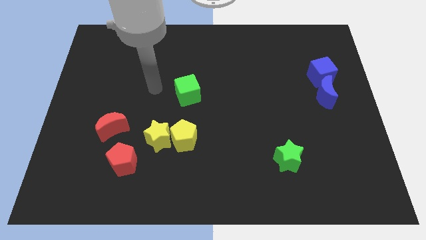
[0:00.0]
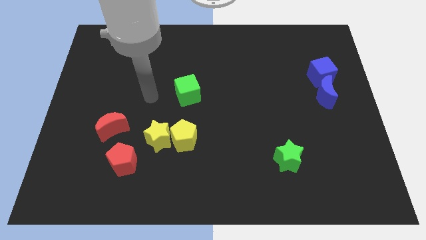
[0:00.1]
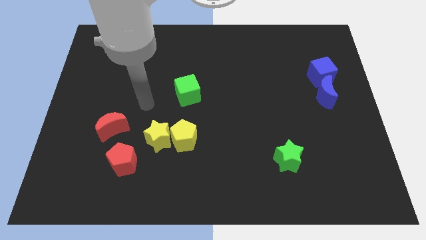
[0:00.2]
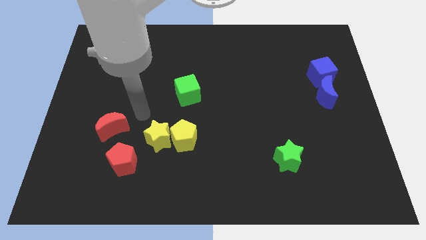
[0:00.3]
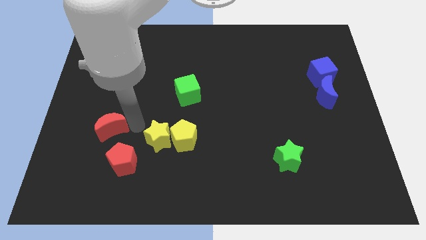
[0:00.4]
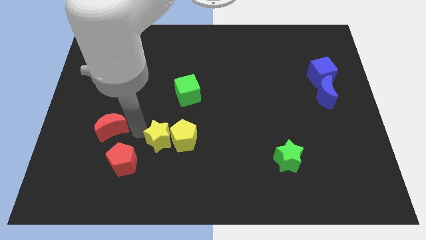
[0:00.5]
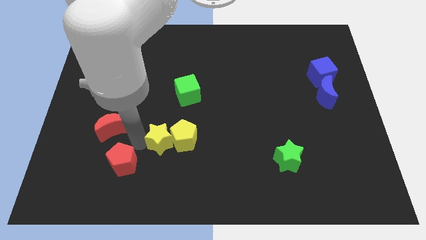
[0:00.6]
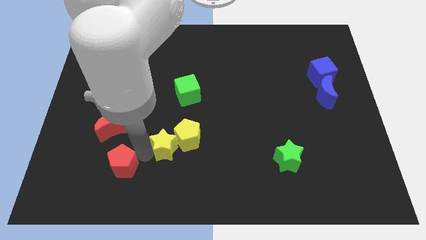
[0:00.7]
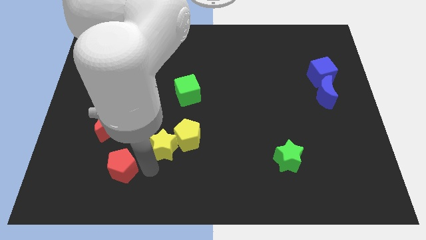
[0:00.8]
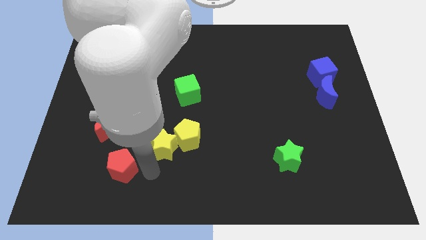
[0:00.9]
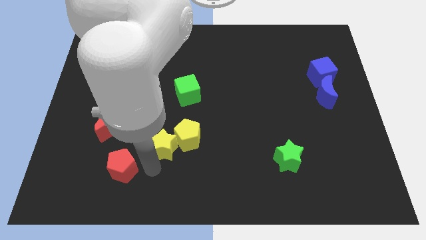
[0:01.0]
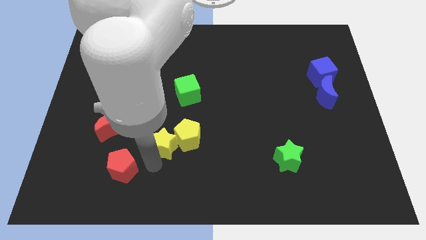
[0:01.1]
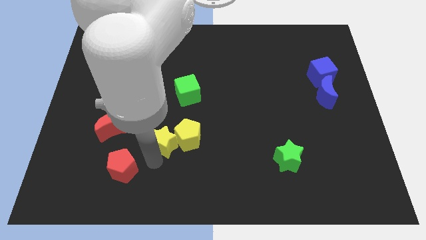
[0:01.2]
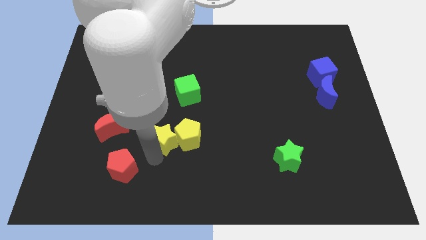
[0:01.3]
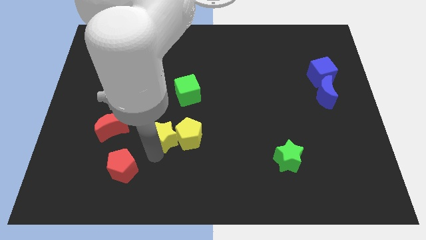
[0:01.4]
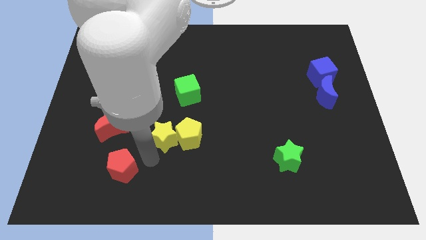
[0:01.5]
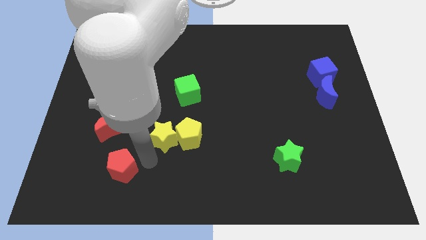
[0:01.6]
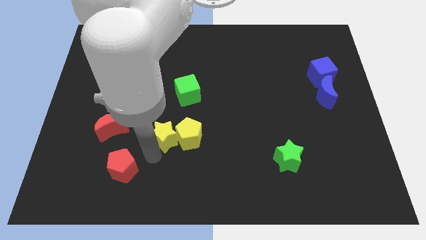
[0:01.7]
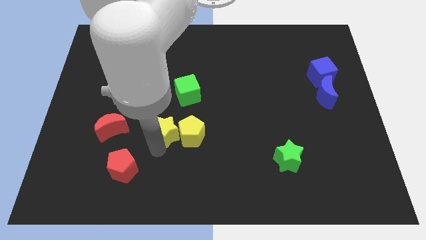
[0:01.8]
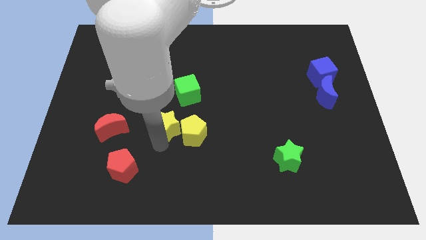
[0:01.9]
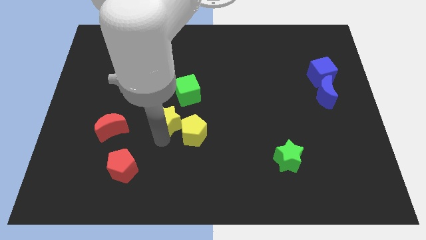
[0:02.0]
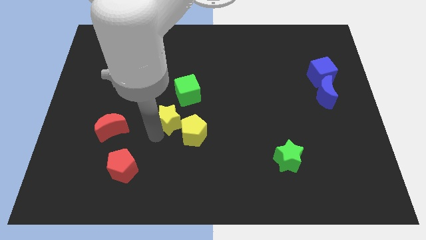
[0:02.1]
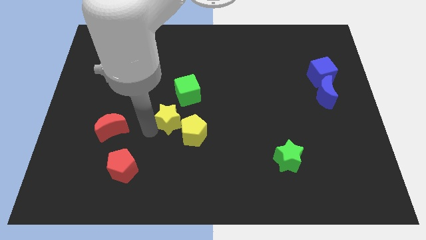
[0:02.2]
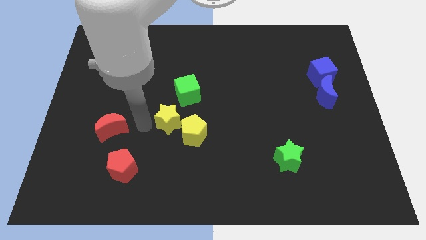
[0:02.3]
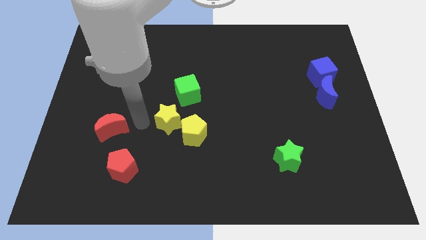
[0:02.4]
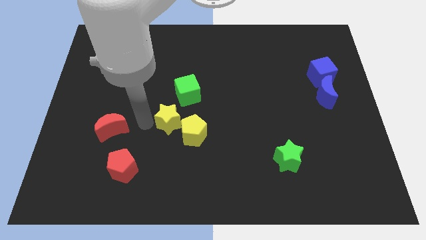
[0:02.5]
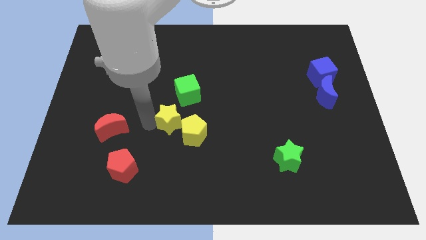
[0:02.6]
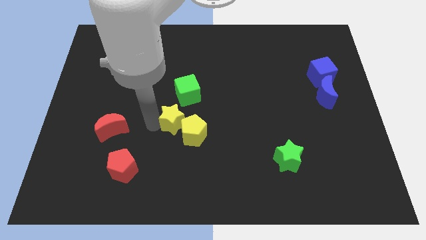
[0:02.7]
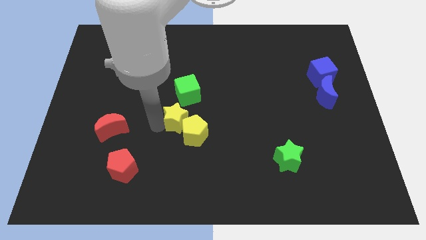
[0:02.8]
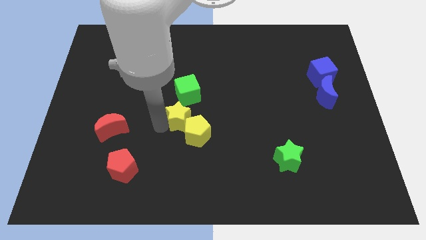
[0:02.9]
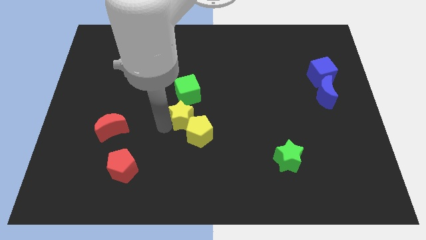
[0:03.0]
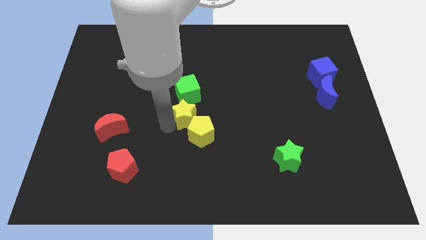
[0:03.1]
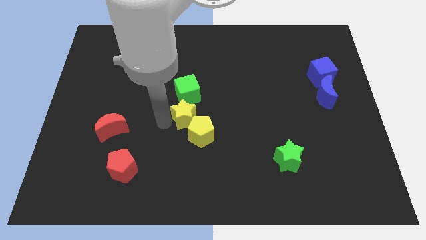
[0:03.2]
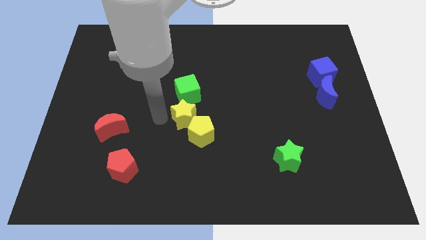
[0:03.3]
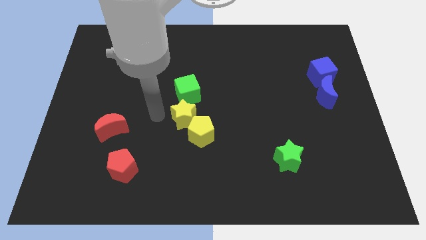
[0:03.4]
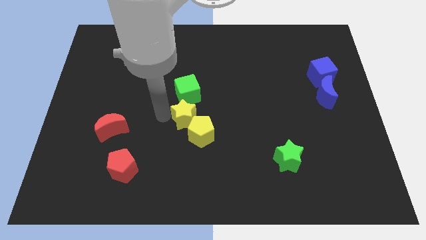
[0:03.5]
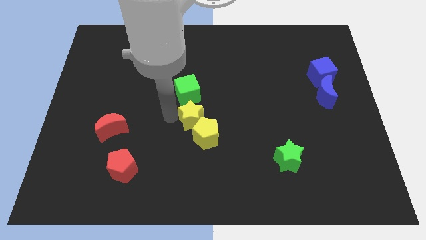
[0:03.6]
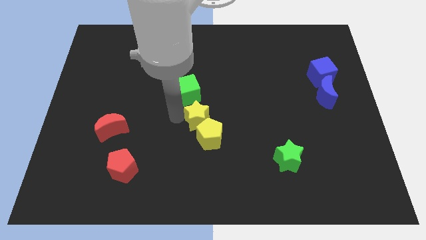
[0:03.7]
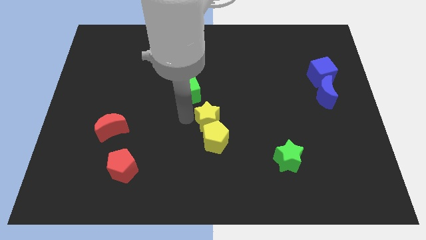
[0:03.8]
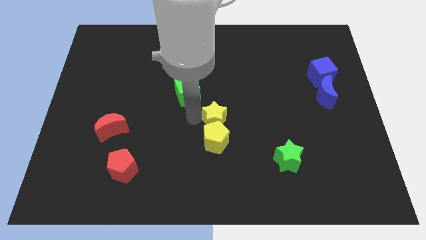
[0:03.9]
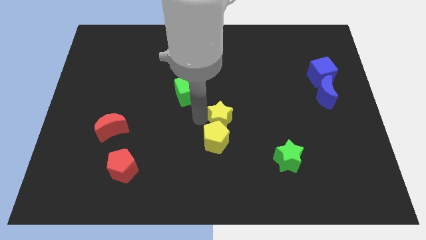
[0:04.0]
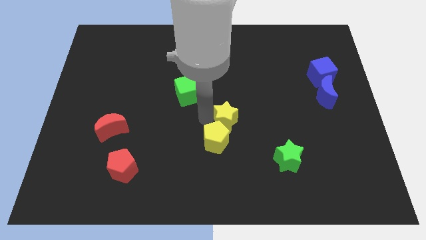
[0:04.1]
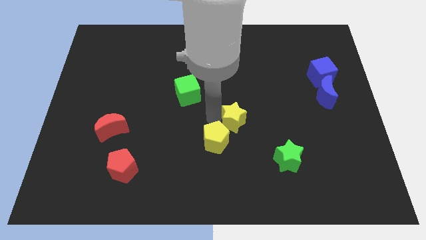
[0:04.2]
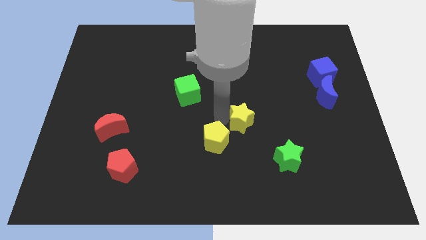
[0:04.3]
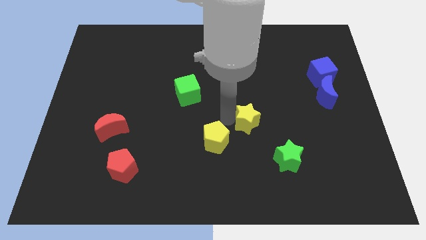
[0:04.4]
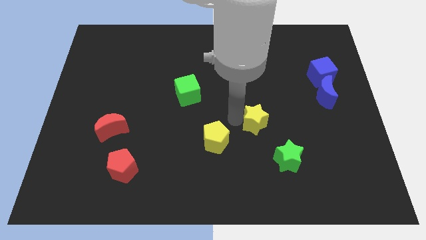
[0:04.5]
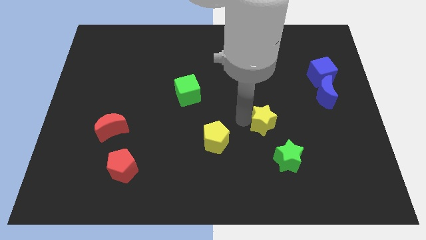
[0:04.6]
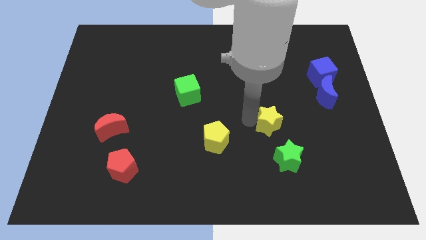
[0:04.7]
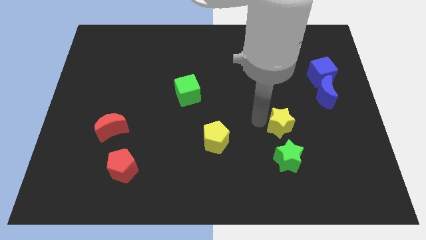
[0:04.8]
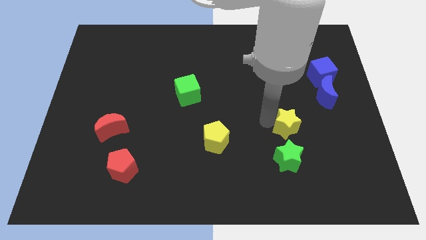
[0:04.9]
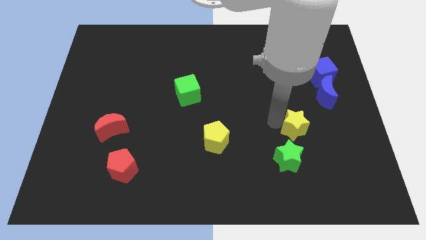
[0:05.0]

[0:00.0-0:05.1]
push the yellow star diagonally up and to the right of the green star

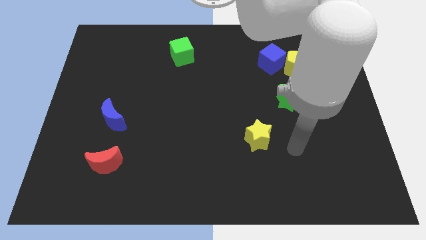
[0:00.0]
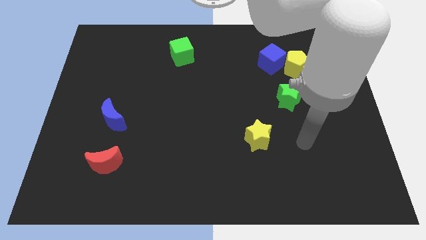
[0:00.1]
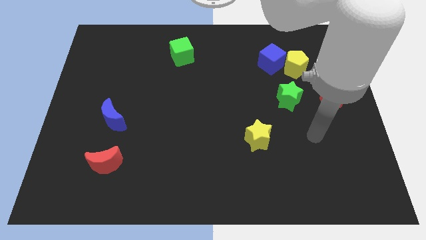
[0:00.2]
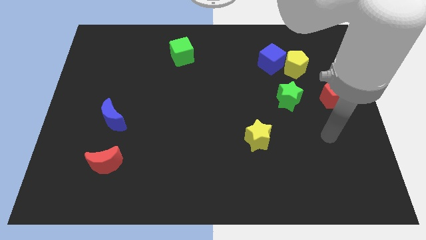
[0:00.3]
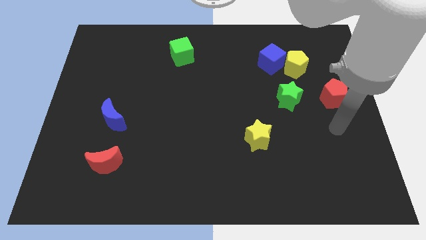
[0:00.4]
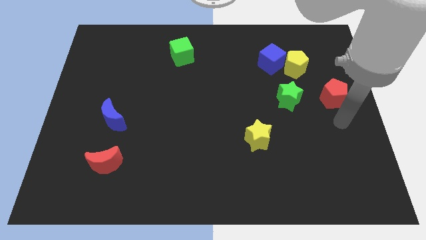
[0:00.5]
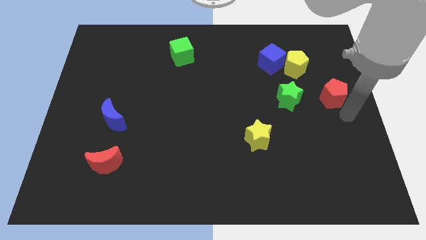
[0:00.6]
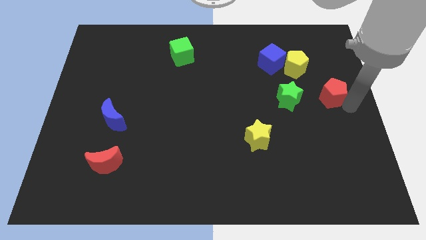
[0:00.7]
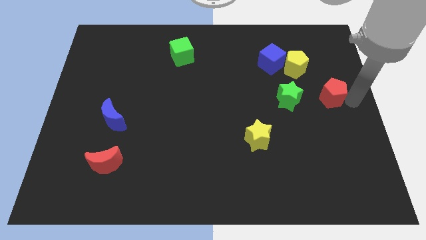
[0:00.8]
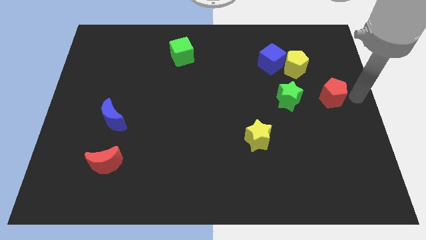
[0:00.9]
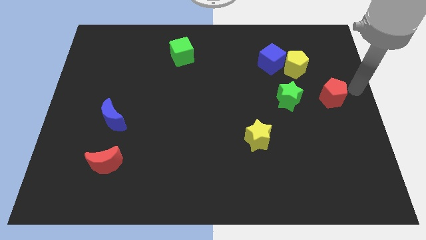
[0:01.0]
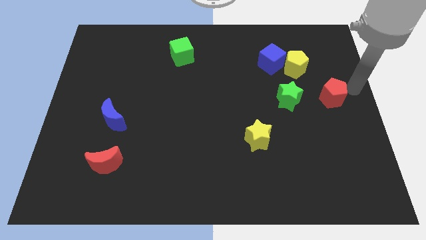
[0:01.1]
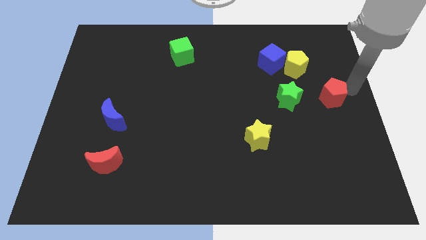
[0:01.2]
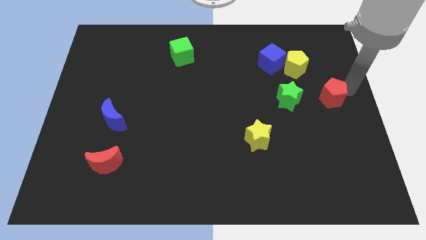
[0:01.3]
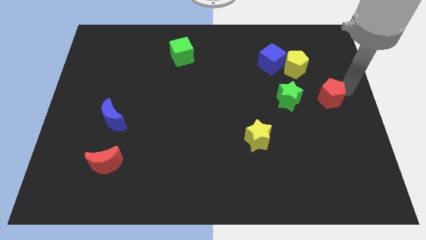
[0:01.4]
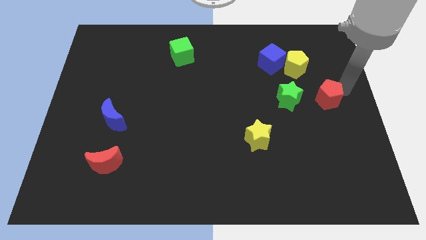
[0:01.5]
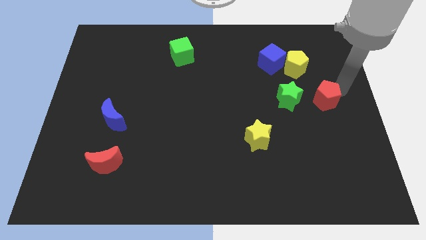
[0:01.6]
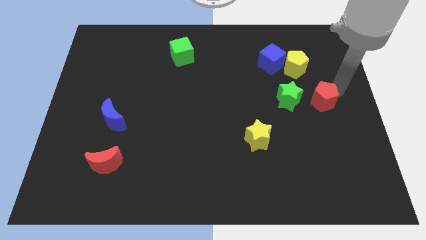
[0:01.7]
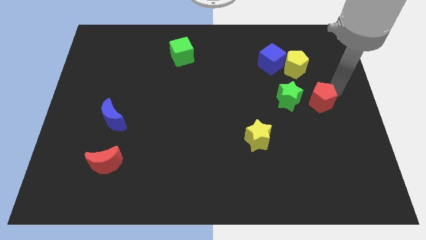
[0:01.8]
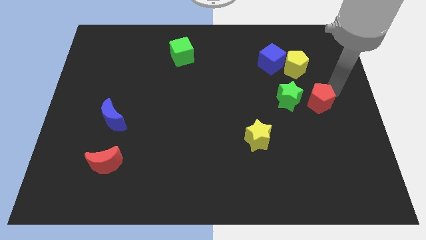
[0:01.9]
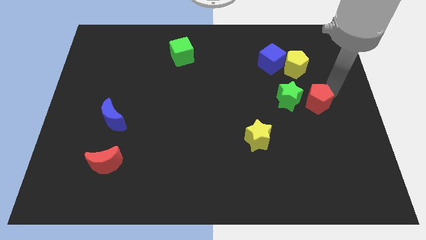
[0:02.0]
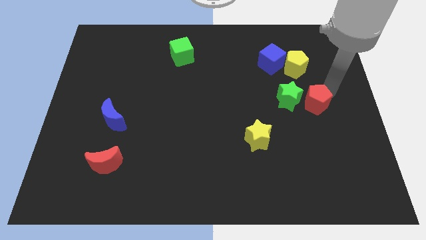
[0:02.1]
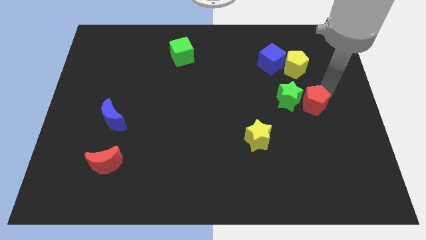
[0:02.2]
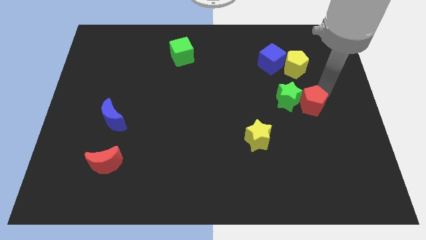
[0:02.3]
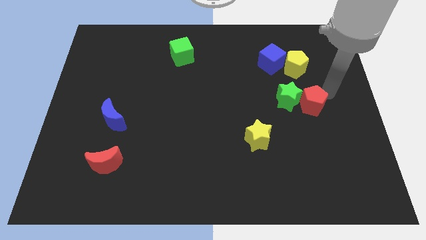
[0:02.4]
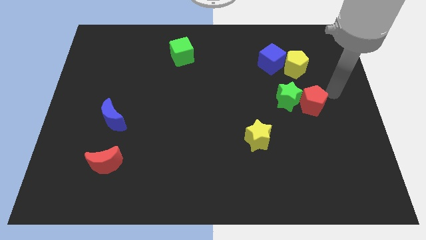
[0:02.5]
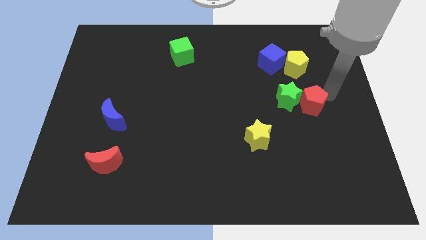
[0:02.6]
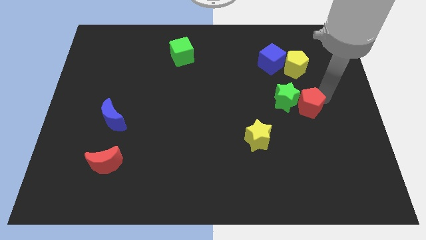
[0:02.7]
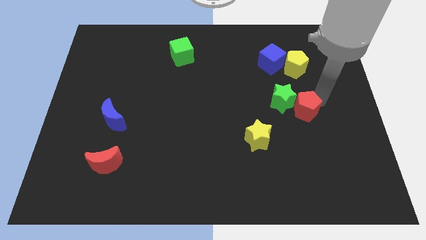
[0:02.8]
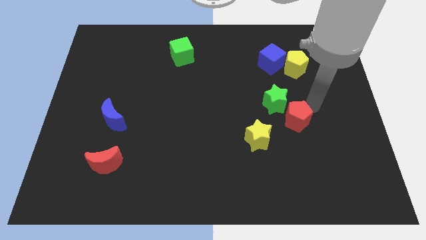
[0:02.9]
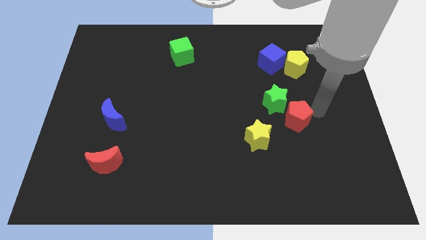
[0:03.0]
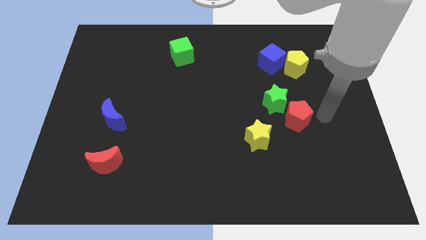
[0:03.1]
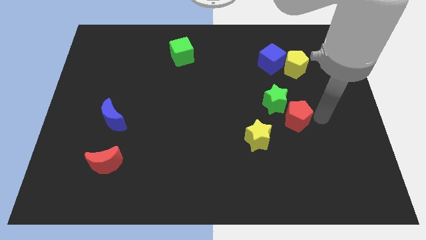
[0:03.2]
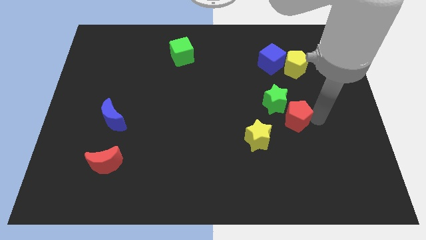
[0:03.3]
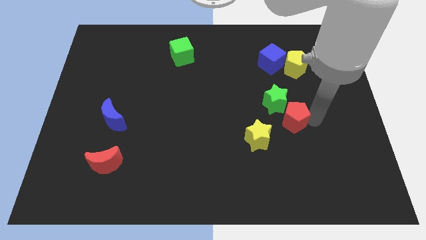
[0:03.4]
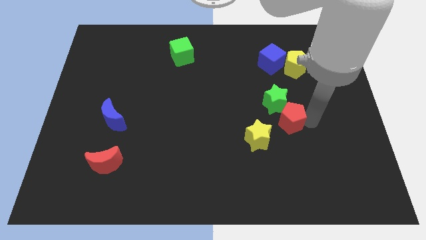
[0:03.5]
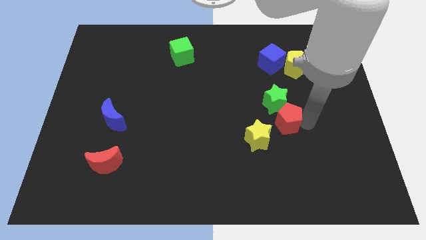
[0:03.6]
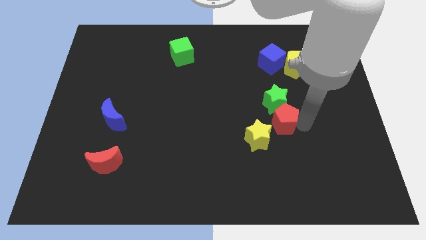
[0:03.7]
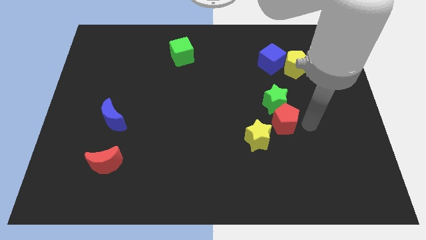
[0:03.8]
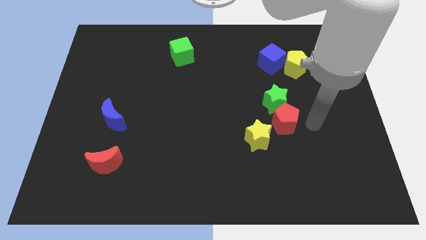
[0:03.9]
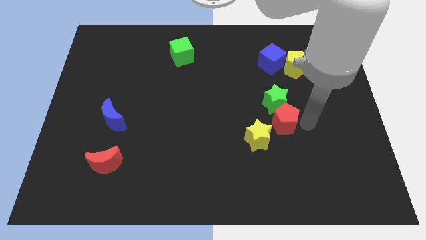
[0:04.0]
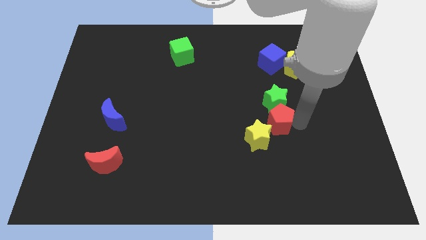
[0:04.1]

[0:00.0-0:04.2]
slide the red pentagon diagonally down and to the left of the green star
